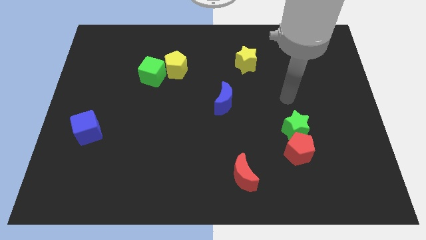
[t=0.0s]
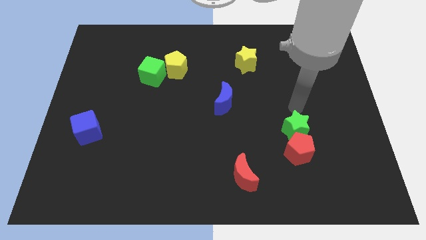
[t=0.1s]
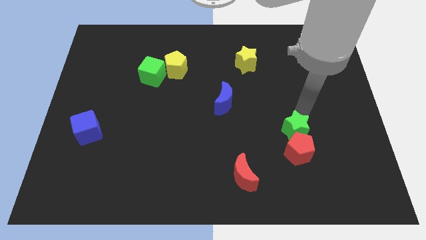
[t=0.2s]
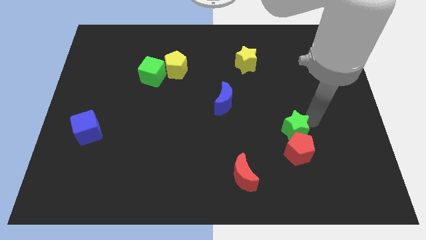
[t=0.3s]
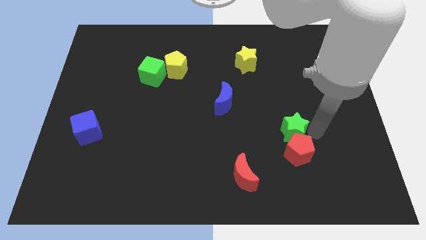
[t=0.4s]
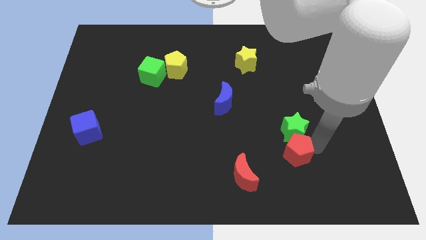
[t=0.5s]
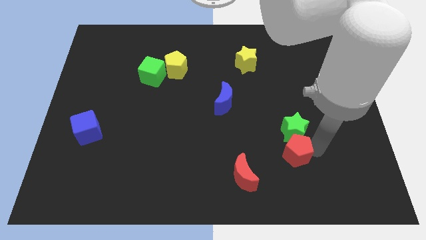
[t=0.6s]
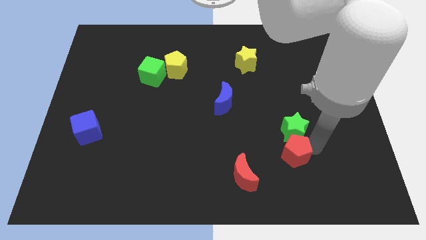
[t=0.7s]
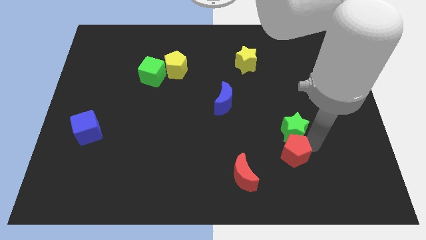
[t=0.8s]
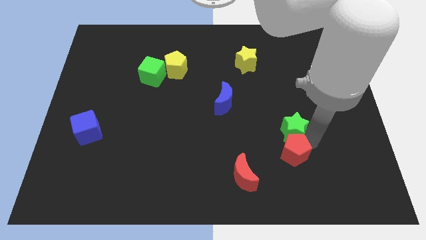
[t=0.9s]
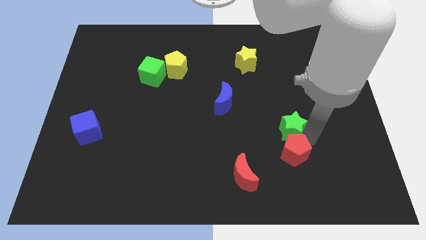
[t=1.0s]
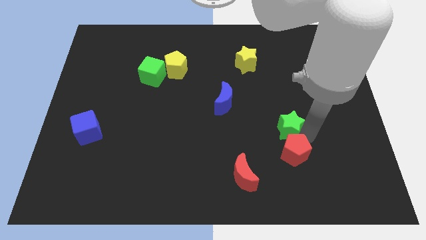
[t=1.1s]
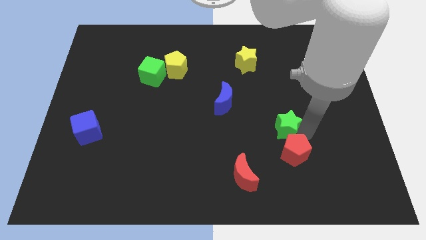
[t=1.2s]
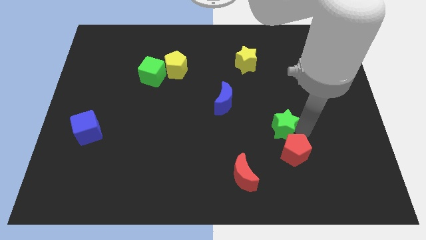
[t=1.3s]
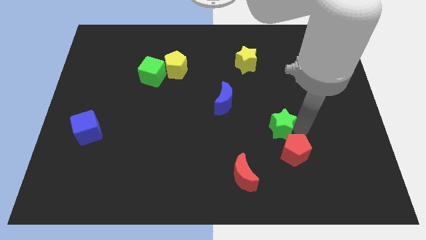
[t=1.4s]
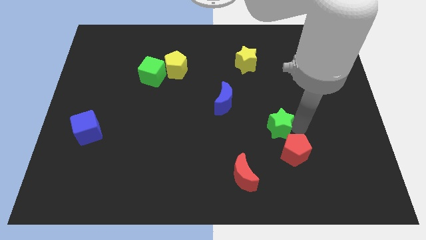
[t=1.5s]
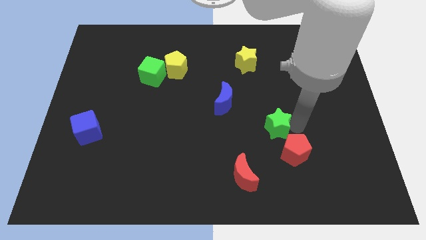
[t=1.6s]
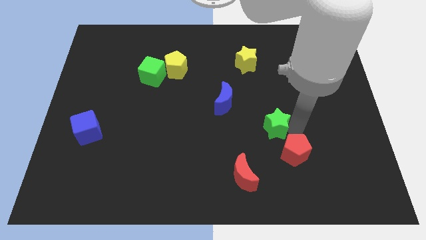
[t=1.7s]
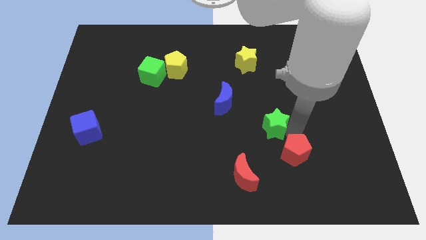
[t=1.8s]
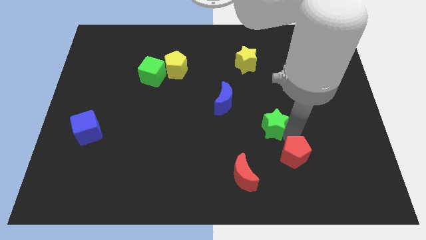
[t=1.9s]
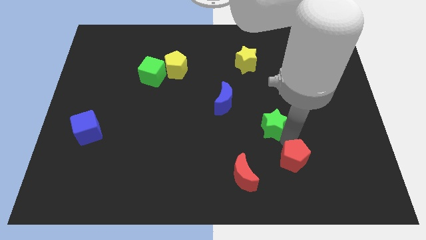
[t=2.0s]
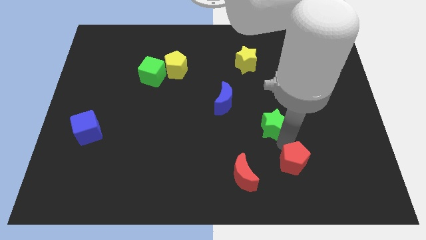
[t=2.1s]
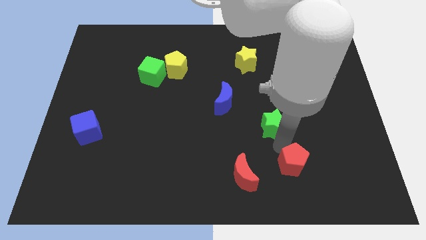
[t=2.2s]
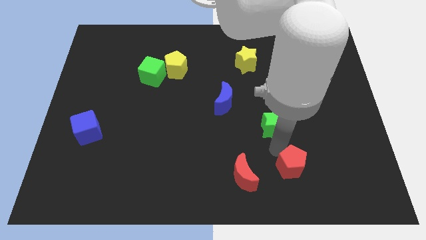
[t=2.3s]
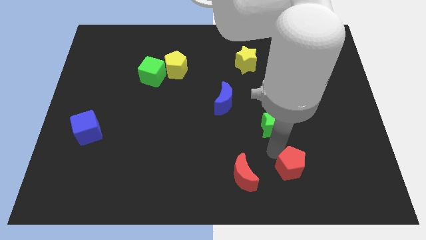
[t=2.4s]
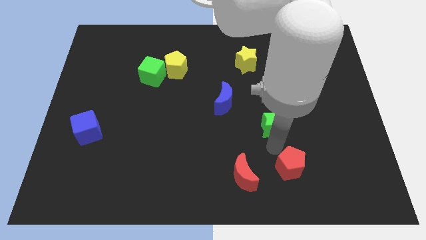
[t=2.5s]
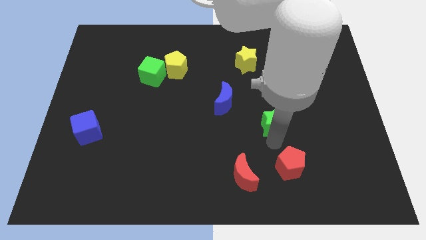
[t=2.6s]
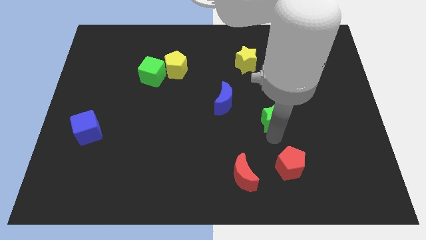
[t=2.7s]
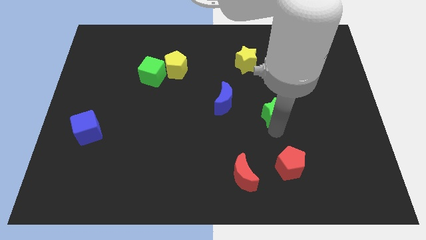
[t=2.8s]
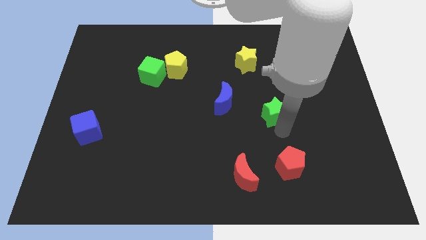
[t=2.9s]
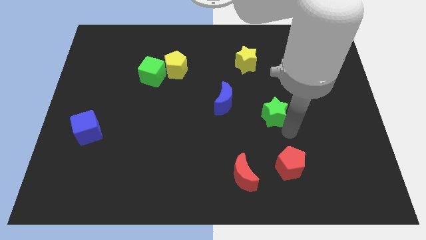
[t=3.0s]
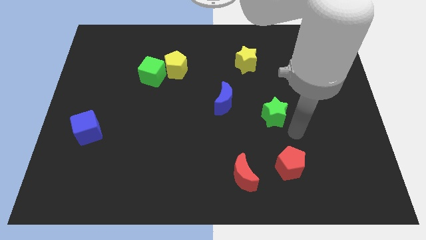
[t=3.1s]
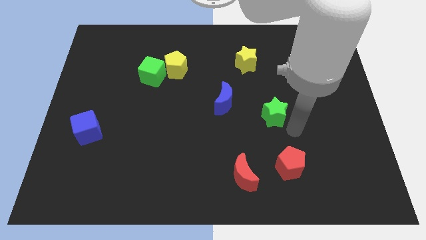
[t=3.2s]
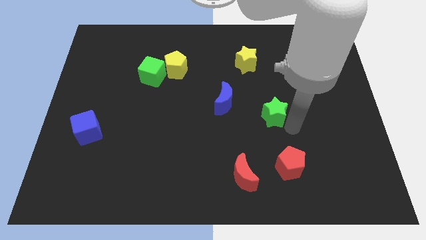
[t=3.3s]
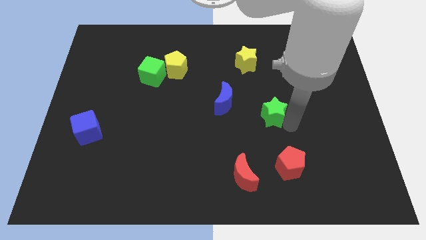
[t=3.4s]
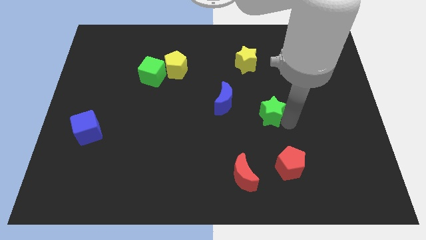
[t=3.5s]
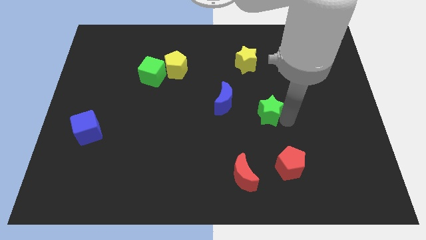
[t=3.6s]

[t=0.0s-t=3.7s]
slightly slide the green star up and to the left

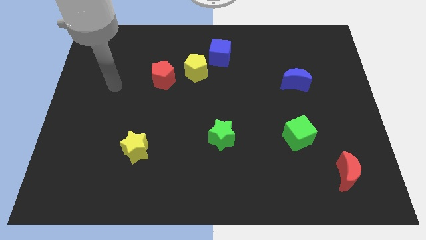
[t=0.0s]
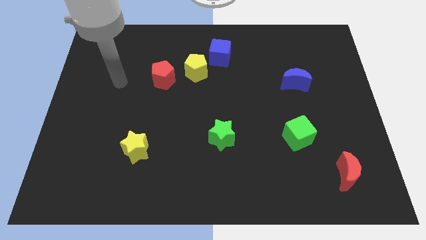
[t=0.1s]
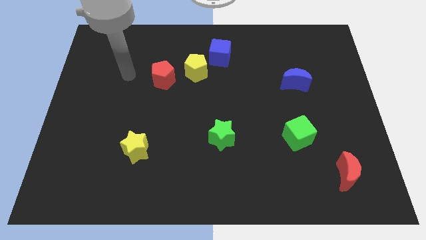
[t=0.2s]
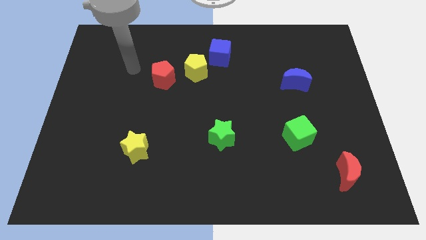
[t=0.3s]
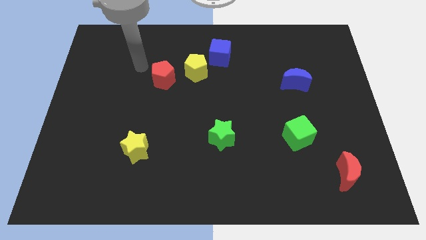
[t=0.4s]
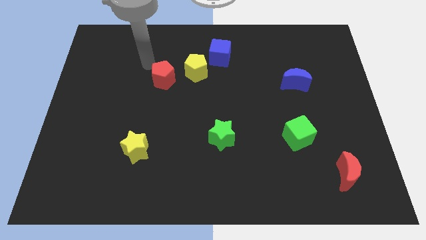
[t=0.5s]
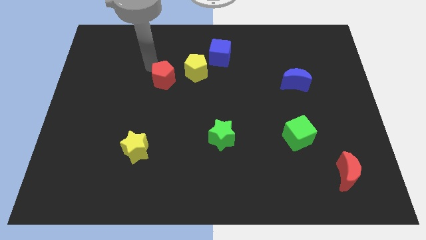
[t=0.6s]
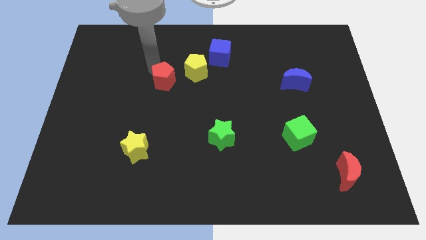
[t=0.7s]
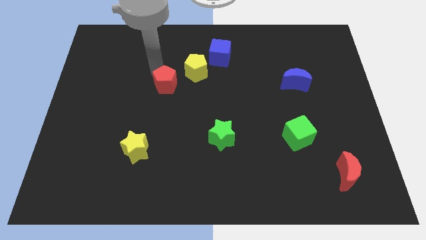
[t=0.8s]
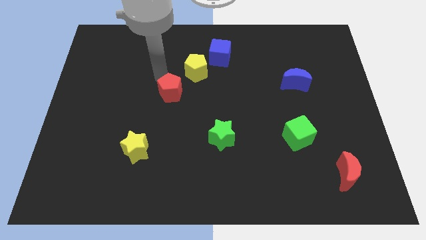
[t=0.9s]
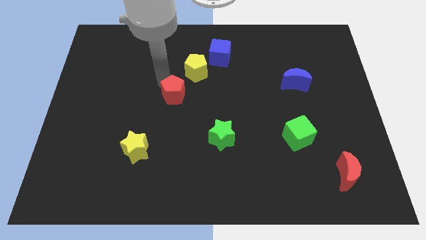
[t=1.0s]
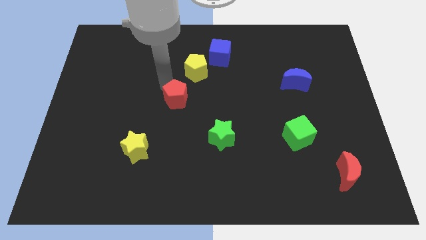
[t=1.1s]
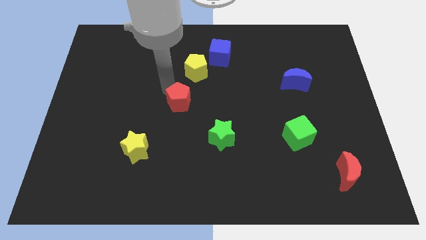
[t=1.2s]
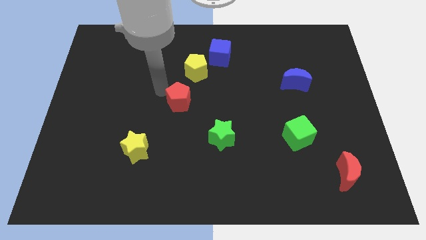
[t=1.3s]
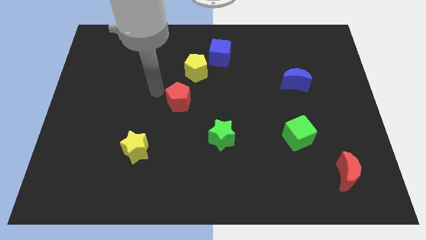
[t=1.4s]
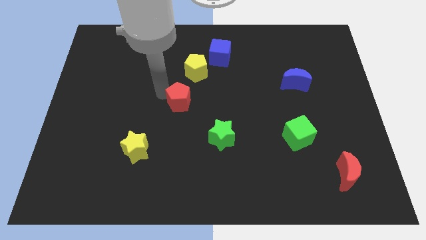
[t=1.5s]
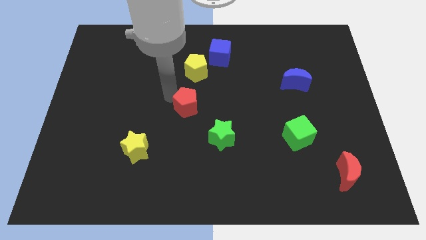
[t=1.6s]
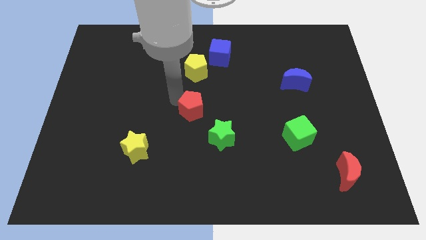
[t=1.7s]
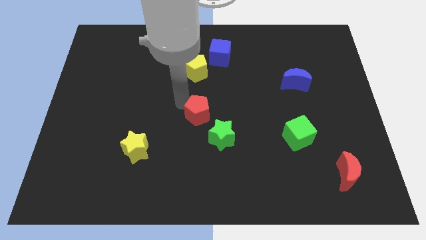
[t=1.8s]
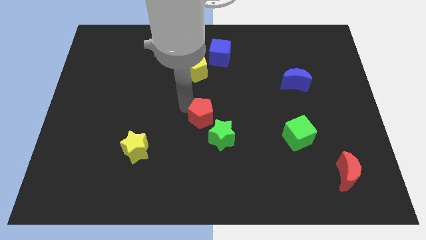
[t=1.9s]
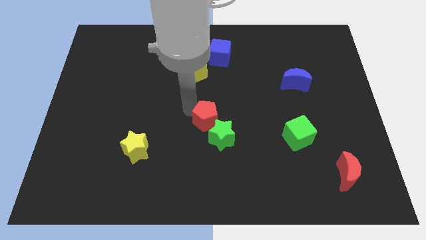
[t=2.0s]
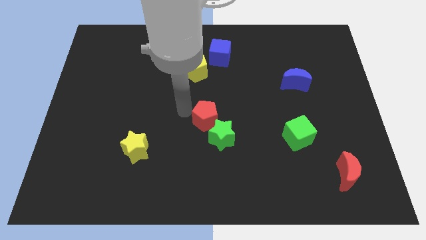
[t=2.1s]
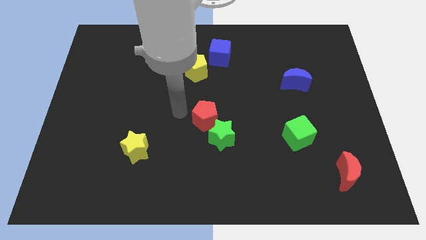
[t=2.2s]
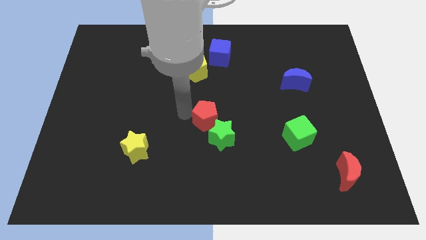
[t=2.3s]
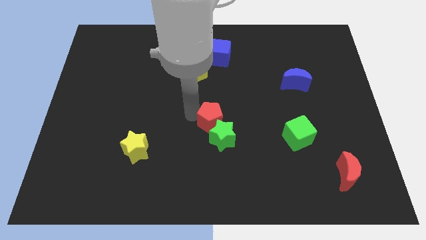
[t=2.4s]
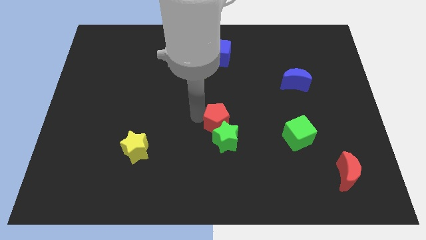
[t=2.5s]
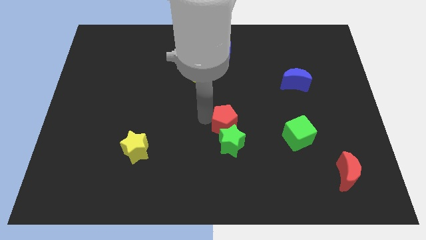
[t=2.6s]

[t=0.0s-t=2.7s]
push the red pentagon down and to the right

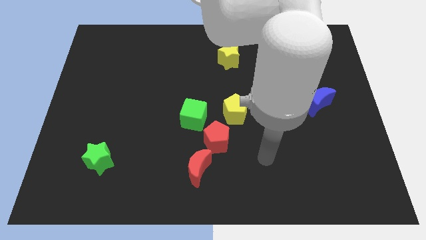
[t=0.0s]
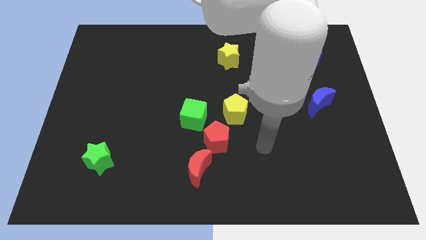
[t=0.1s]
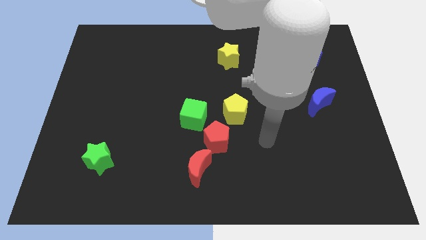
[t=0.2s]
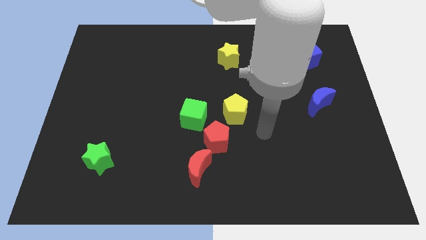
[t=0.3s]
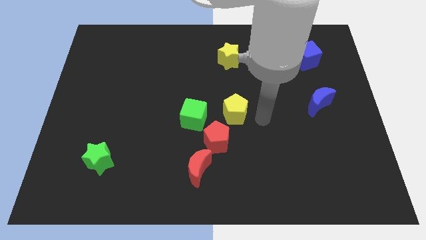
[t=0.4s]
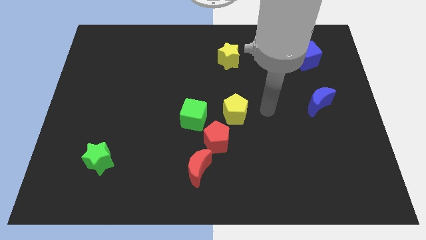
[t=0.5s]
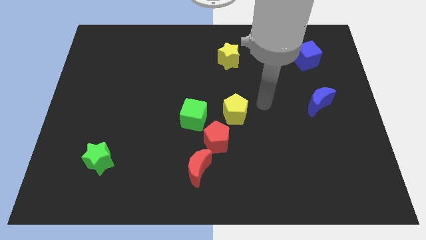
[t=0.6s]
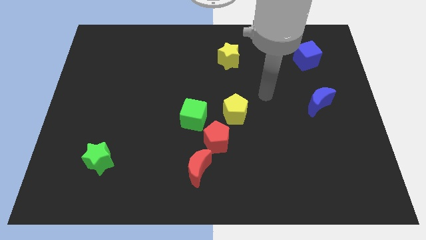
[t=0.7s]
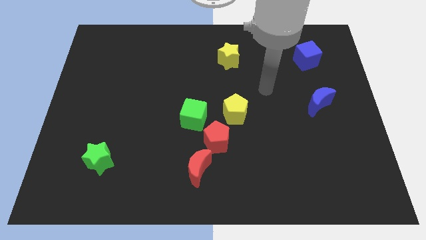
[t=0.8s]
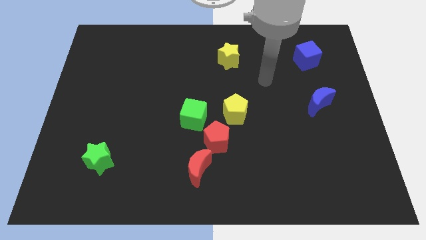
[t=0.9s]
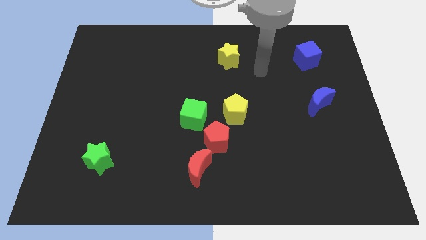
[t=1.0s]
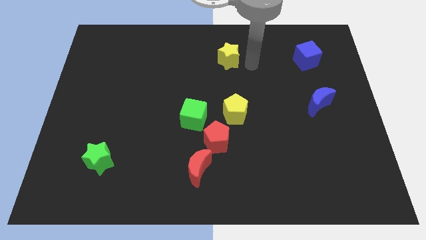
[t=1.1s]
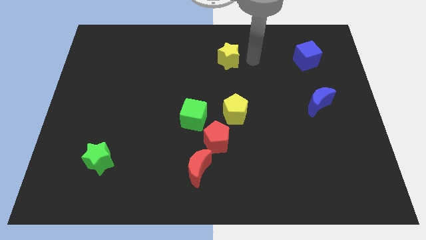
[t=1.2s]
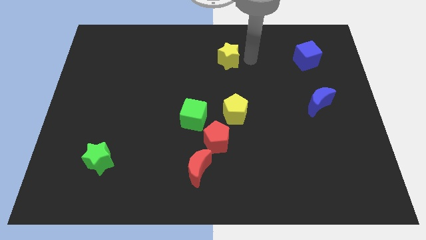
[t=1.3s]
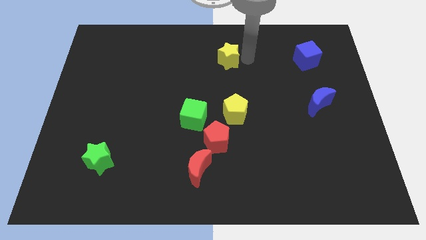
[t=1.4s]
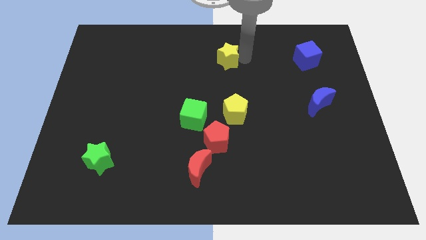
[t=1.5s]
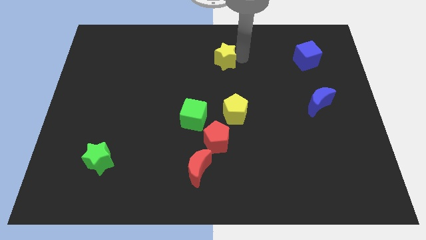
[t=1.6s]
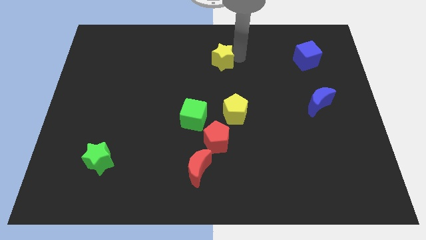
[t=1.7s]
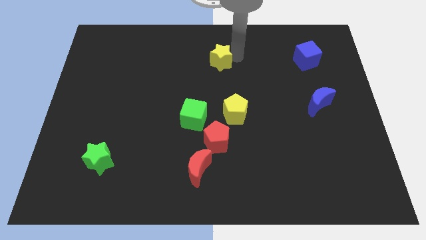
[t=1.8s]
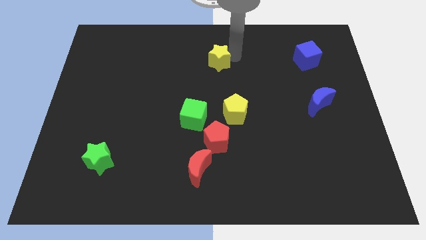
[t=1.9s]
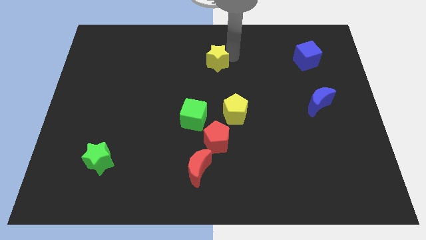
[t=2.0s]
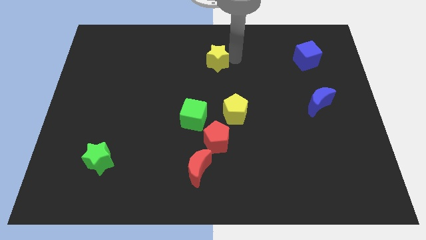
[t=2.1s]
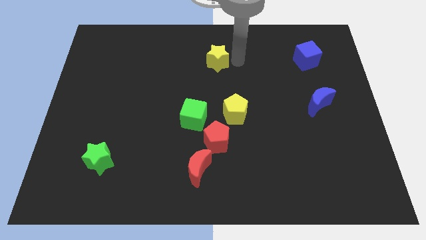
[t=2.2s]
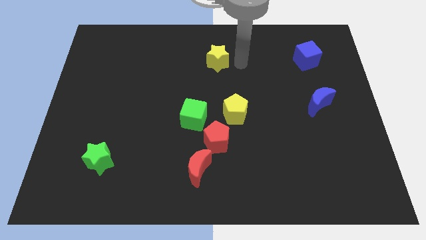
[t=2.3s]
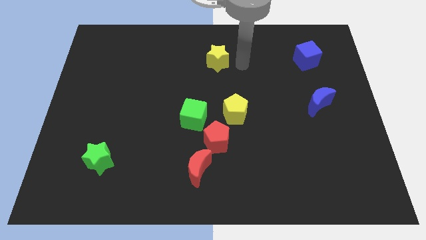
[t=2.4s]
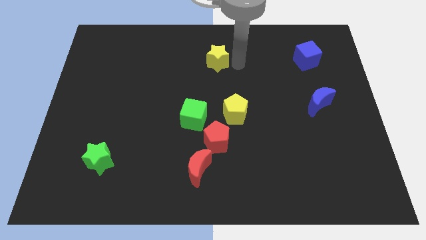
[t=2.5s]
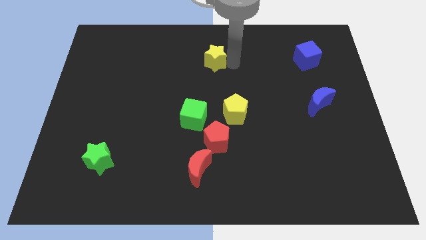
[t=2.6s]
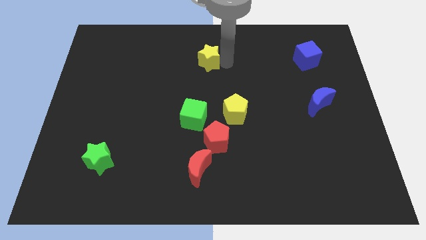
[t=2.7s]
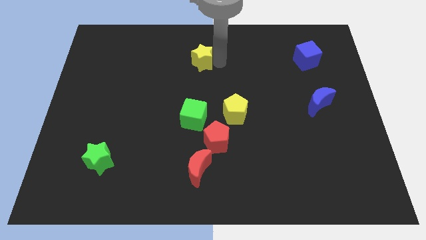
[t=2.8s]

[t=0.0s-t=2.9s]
slightly push the yellow star to the left
